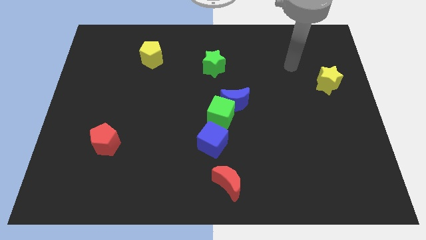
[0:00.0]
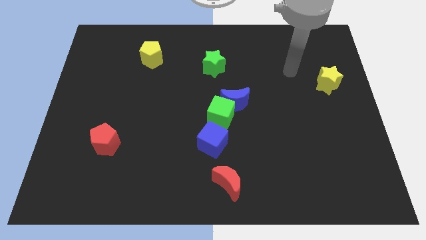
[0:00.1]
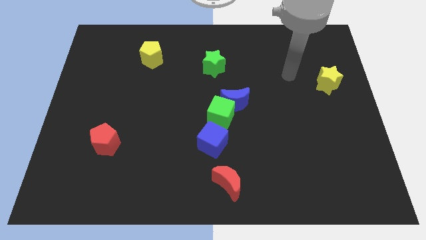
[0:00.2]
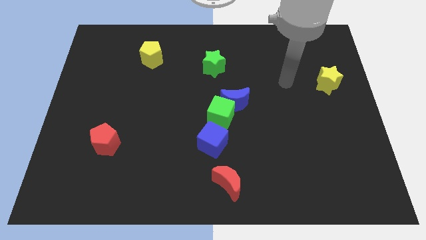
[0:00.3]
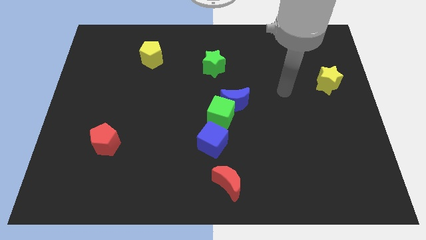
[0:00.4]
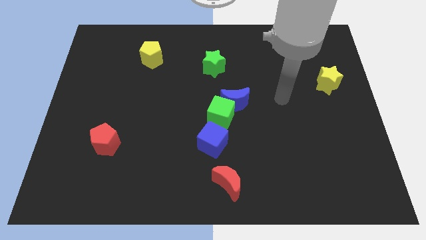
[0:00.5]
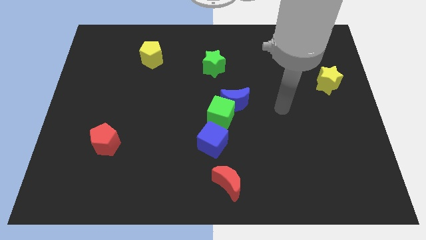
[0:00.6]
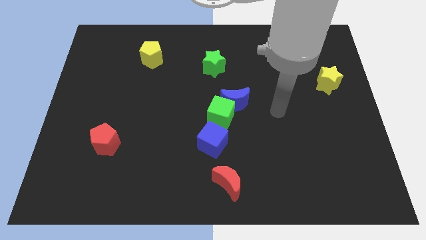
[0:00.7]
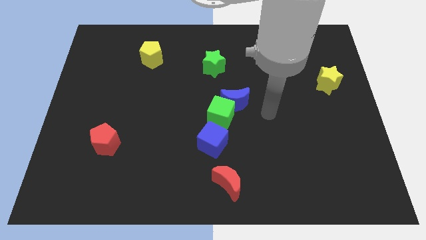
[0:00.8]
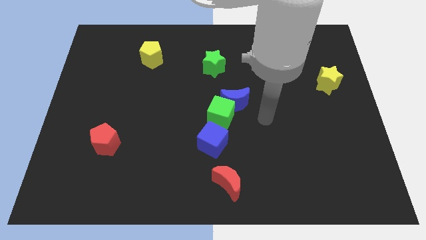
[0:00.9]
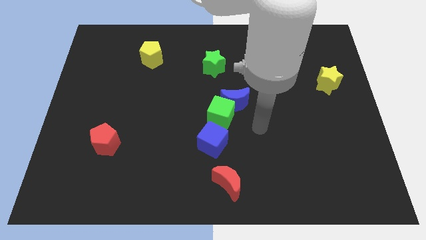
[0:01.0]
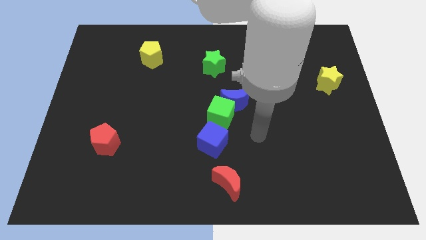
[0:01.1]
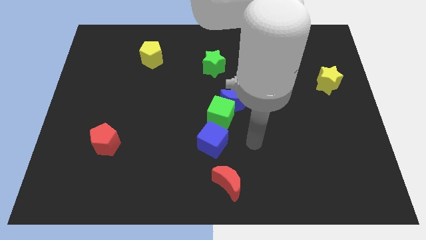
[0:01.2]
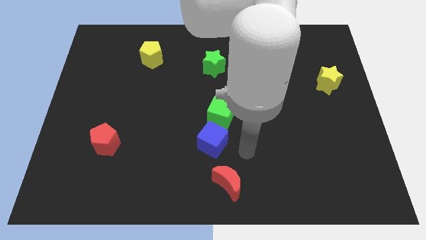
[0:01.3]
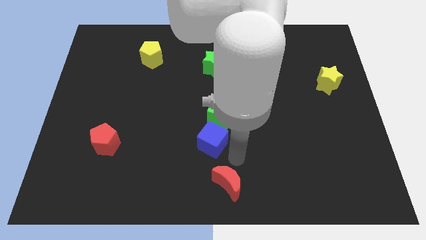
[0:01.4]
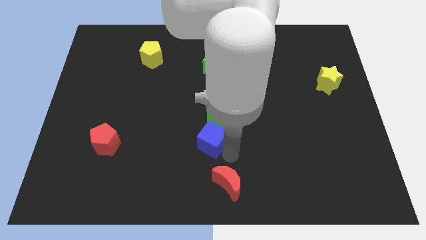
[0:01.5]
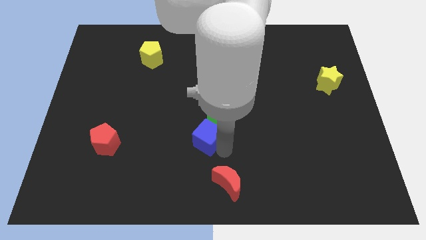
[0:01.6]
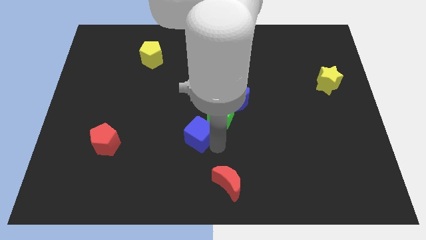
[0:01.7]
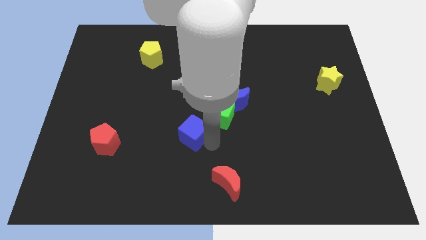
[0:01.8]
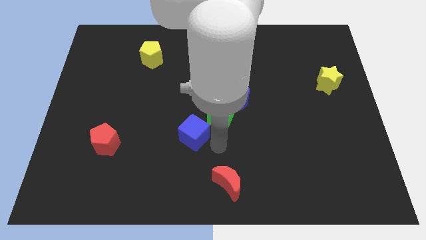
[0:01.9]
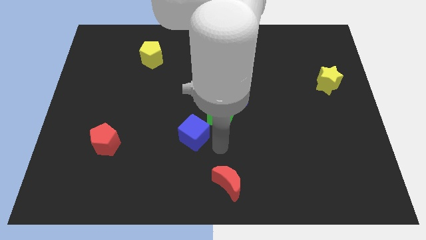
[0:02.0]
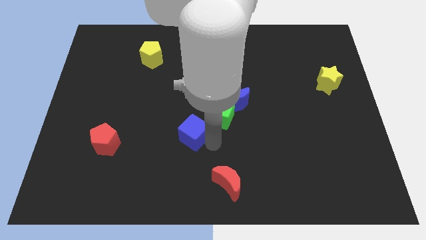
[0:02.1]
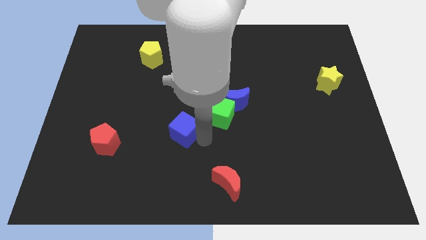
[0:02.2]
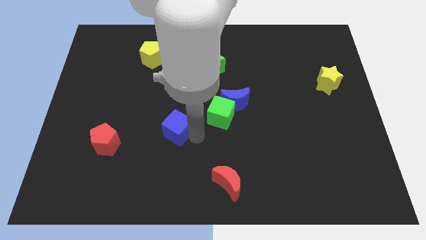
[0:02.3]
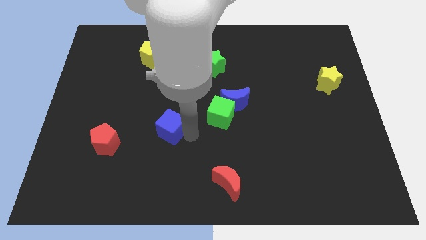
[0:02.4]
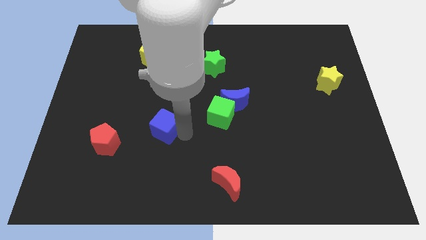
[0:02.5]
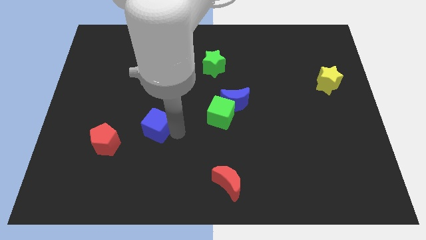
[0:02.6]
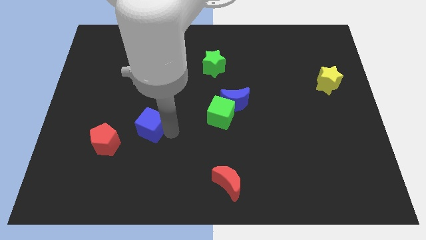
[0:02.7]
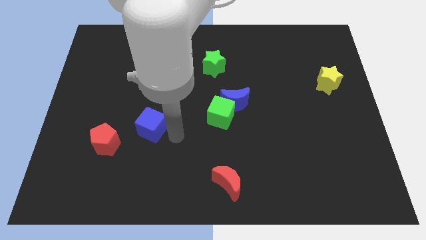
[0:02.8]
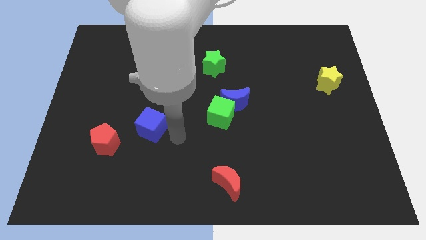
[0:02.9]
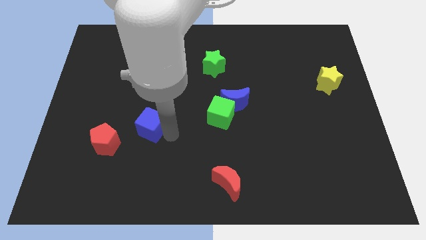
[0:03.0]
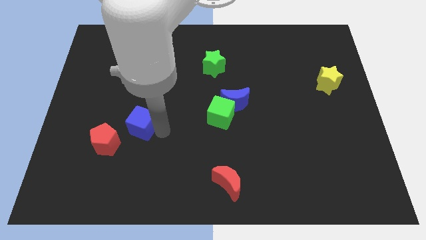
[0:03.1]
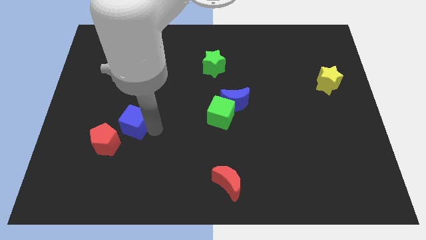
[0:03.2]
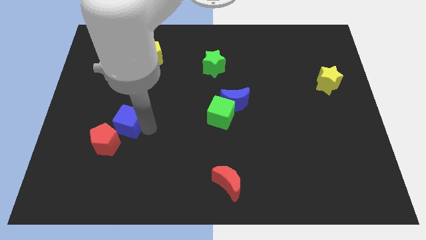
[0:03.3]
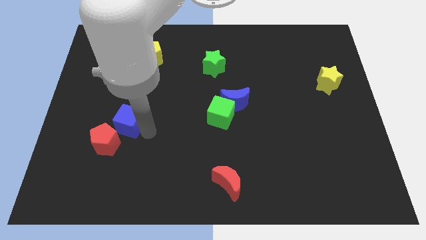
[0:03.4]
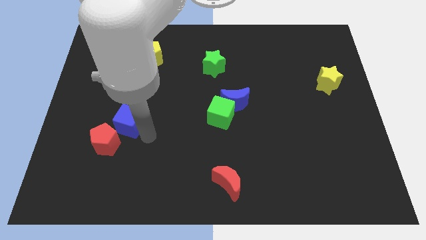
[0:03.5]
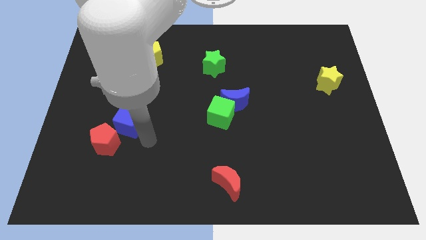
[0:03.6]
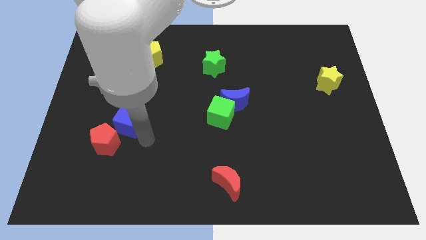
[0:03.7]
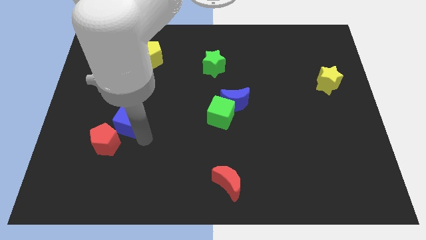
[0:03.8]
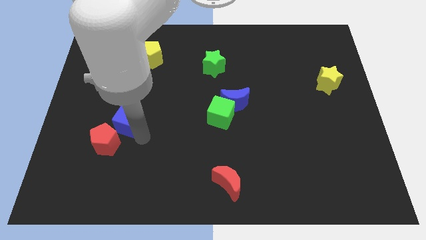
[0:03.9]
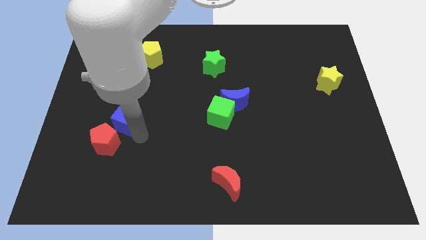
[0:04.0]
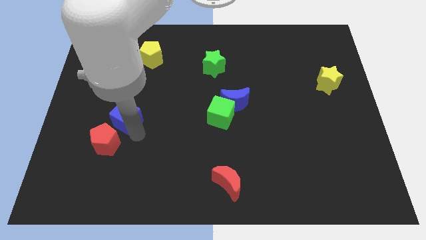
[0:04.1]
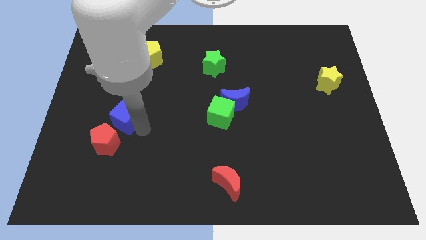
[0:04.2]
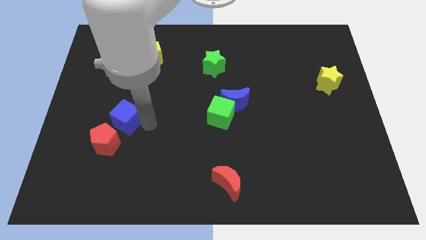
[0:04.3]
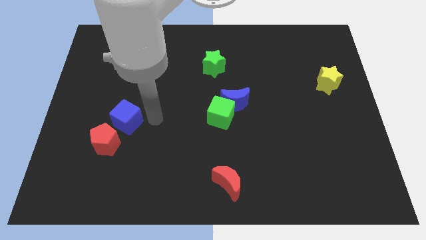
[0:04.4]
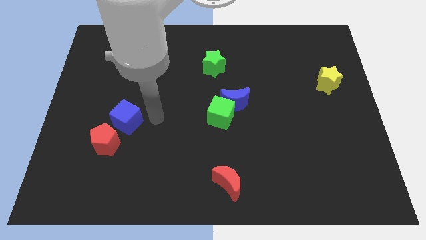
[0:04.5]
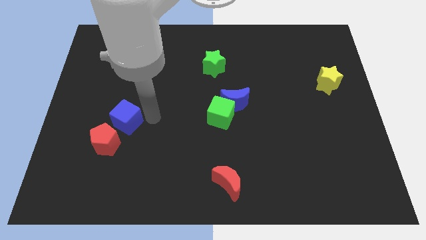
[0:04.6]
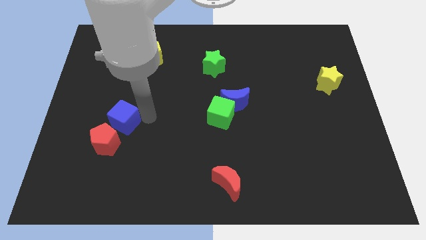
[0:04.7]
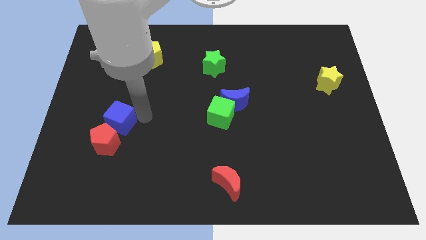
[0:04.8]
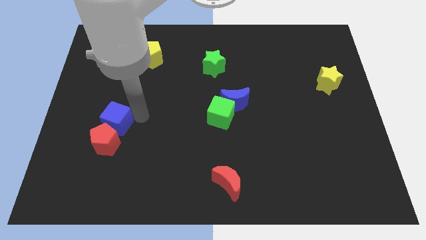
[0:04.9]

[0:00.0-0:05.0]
push the blue cube to the top left of the red pentagon

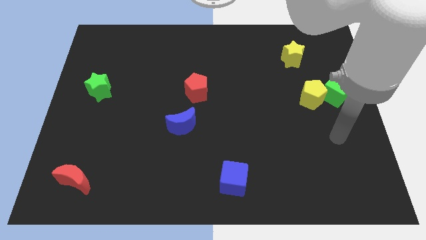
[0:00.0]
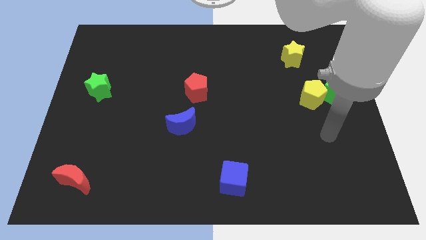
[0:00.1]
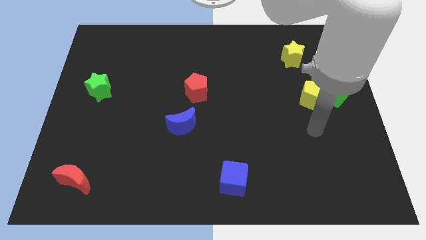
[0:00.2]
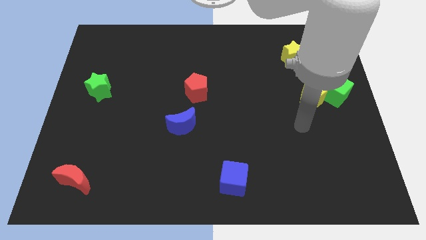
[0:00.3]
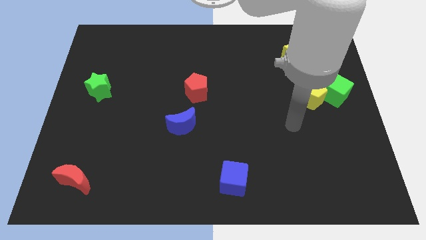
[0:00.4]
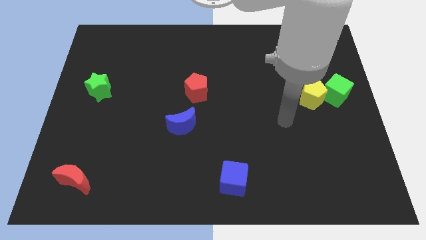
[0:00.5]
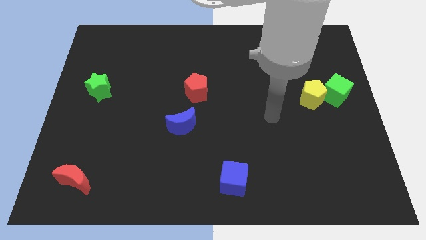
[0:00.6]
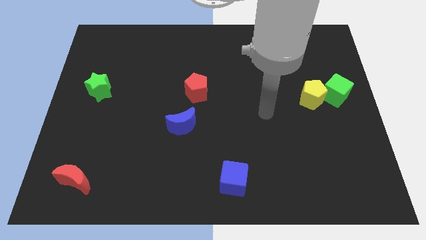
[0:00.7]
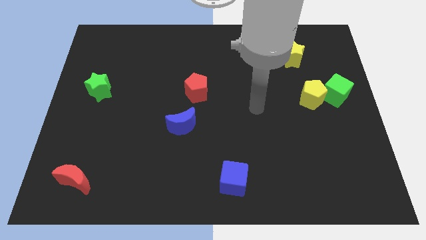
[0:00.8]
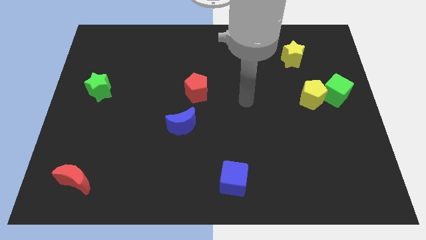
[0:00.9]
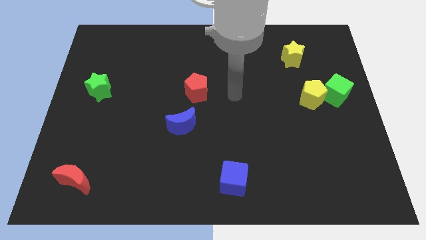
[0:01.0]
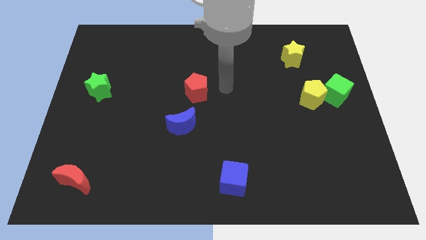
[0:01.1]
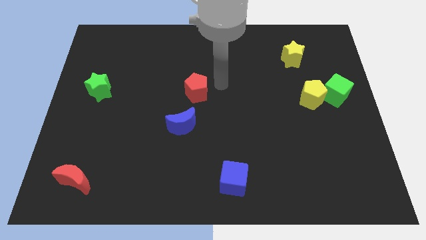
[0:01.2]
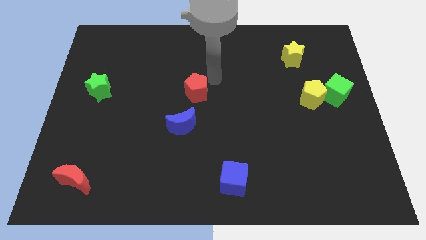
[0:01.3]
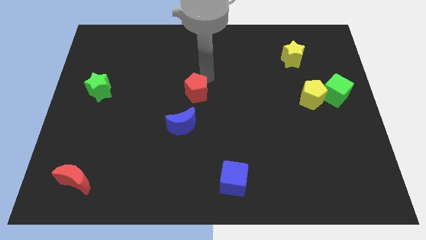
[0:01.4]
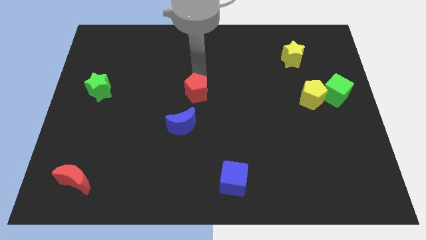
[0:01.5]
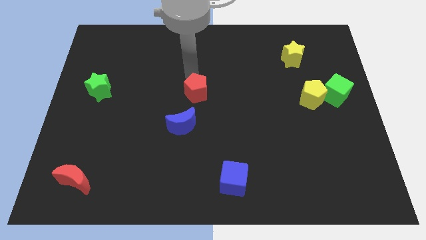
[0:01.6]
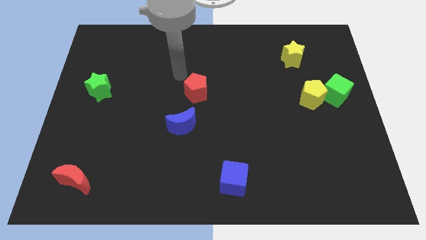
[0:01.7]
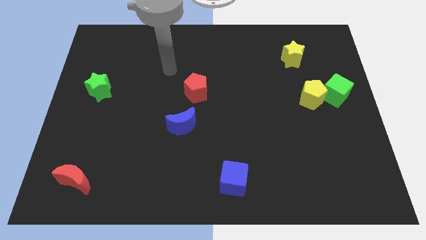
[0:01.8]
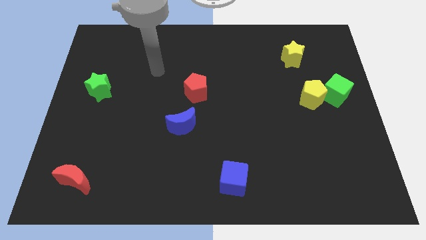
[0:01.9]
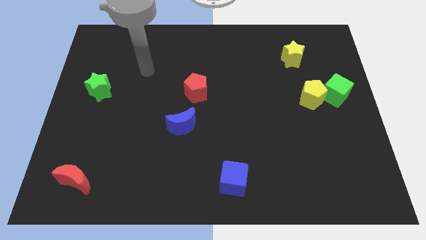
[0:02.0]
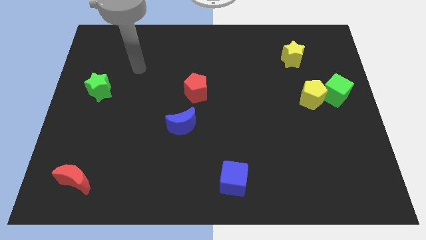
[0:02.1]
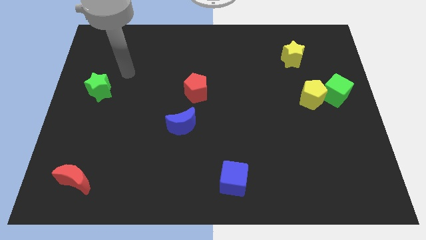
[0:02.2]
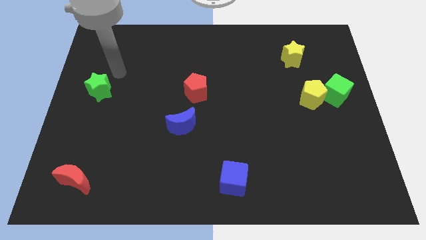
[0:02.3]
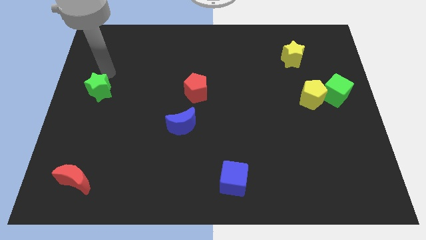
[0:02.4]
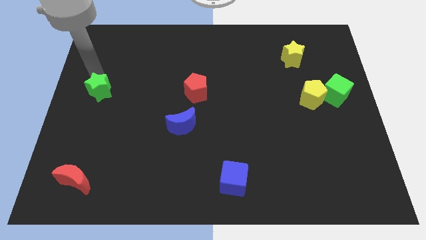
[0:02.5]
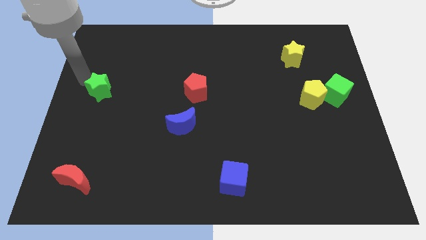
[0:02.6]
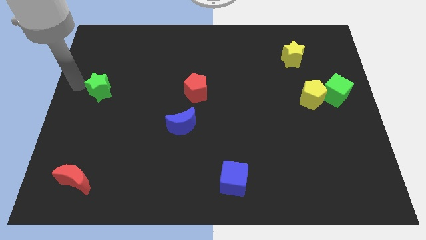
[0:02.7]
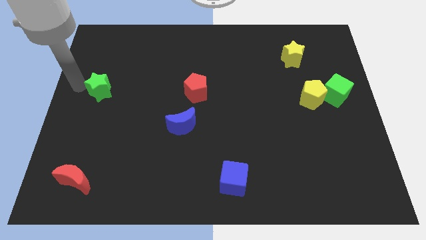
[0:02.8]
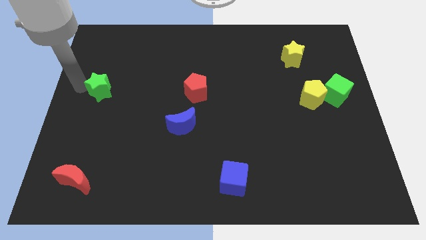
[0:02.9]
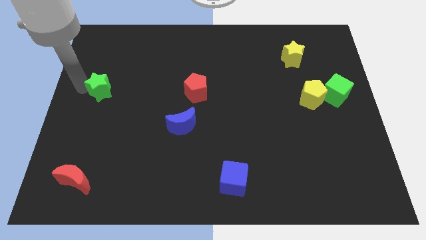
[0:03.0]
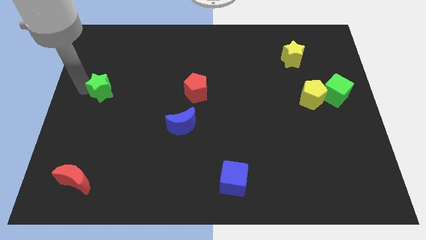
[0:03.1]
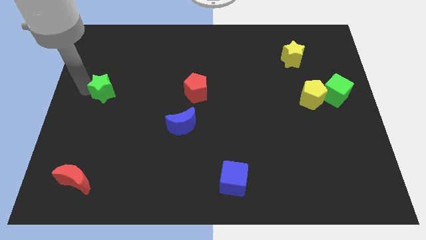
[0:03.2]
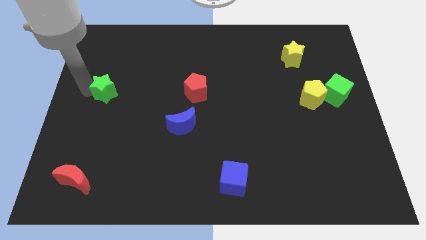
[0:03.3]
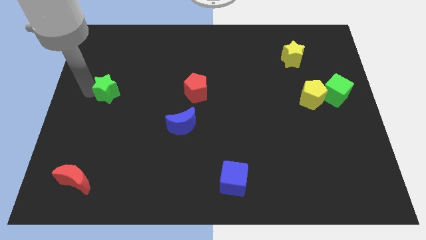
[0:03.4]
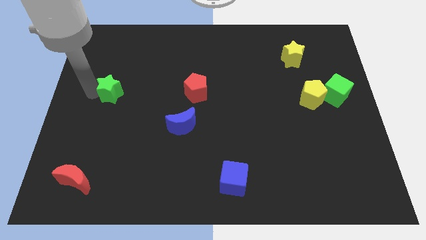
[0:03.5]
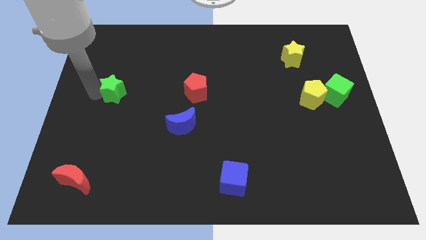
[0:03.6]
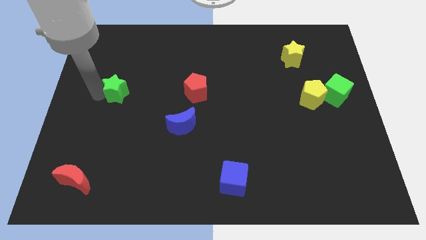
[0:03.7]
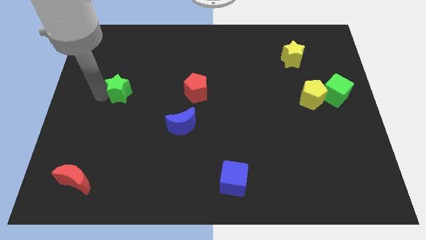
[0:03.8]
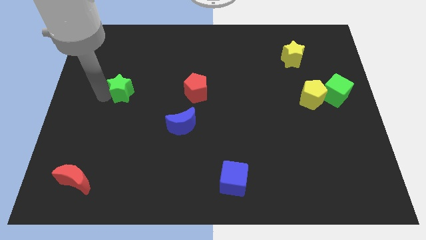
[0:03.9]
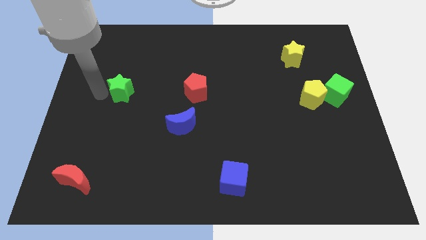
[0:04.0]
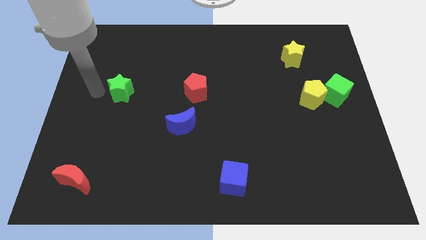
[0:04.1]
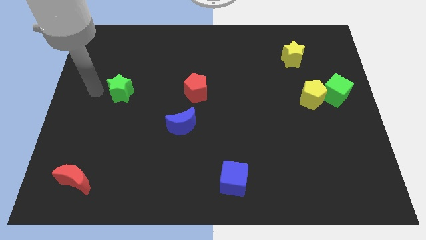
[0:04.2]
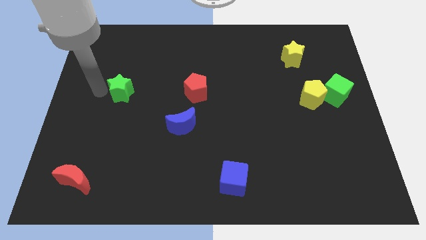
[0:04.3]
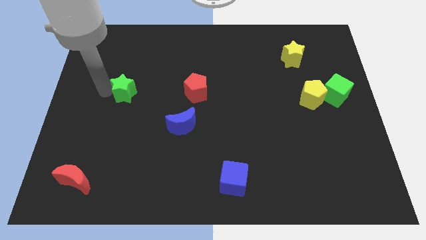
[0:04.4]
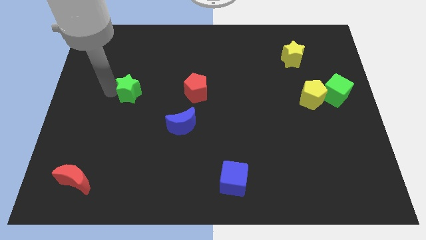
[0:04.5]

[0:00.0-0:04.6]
move the green star left of the red pentagon
